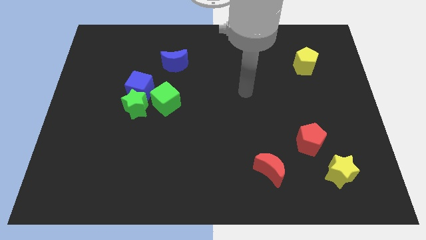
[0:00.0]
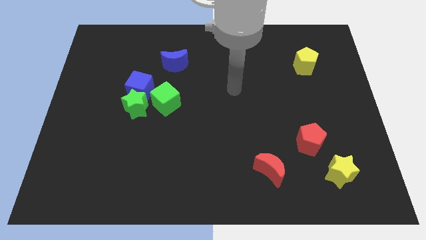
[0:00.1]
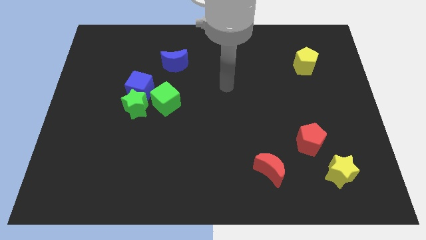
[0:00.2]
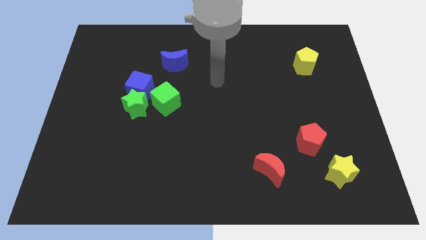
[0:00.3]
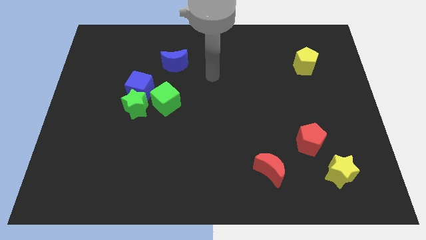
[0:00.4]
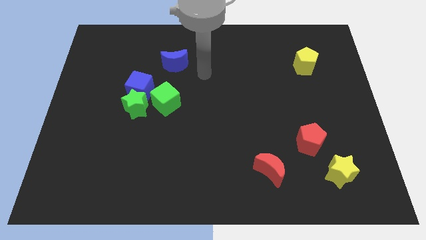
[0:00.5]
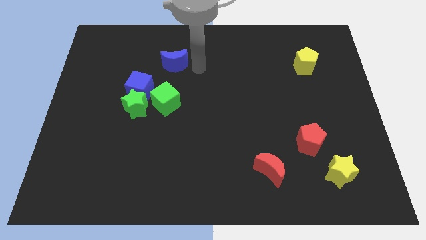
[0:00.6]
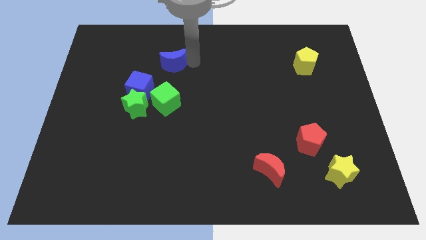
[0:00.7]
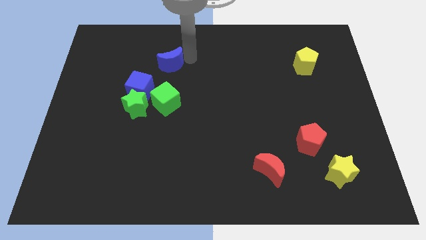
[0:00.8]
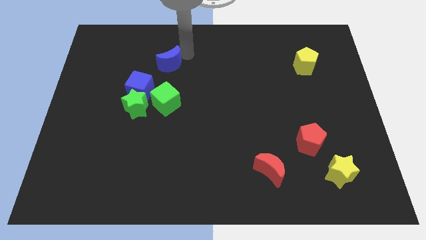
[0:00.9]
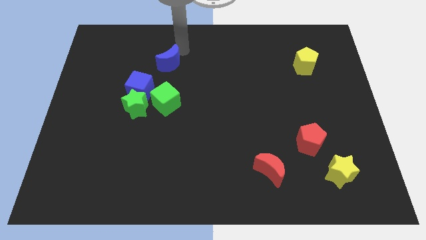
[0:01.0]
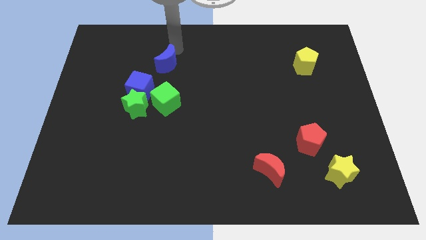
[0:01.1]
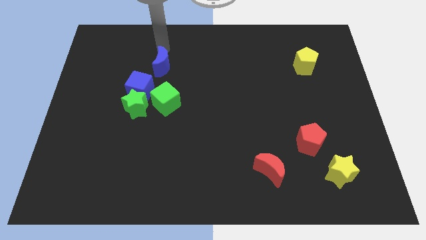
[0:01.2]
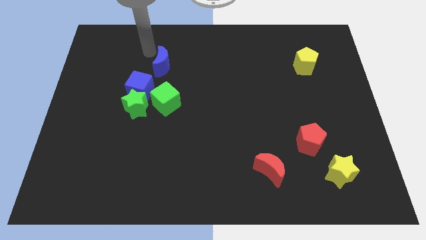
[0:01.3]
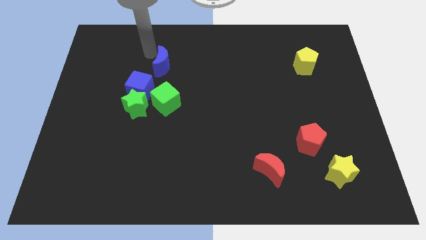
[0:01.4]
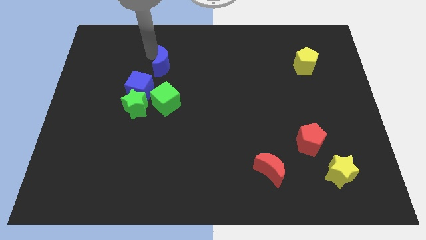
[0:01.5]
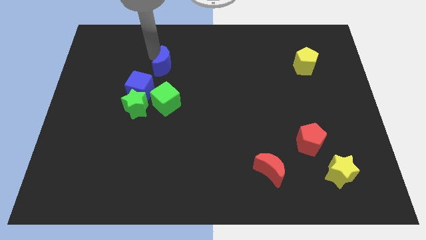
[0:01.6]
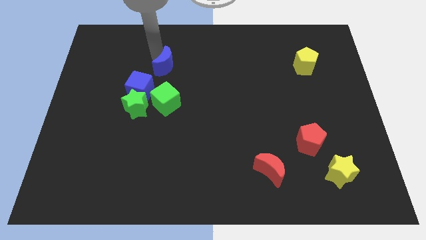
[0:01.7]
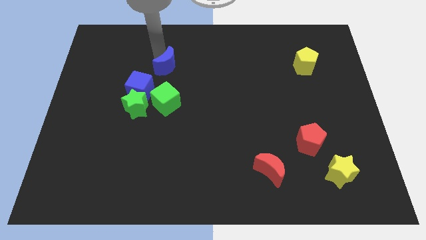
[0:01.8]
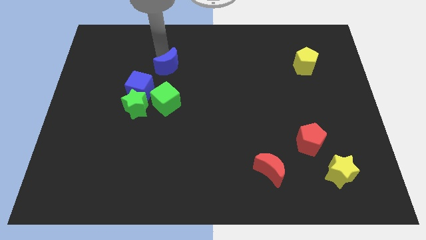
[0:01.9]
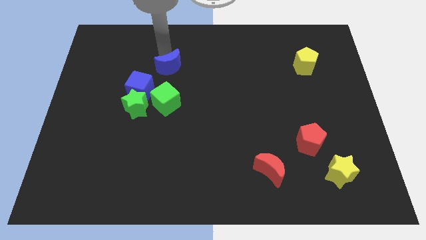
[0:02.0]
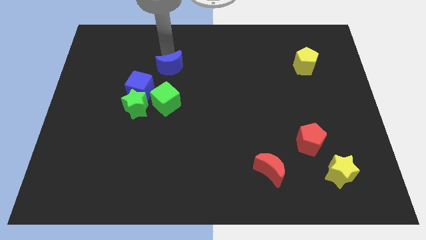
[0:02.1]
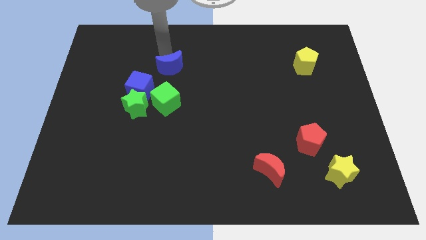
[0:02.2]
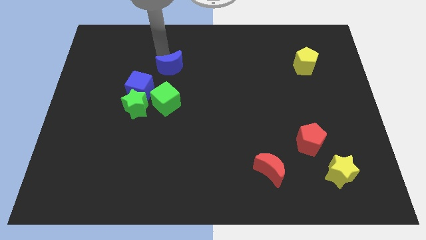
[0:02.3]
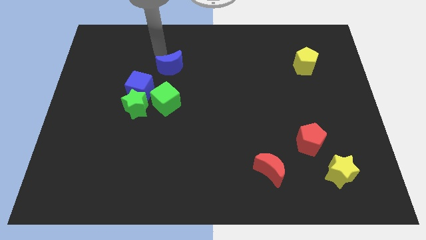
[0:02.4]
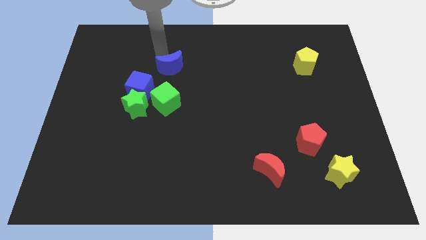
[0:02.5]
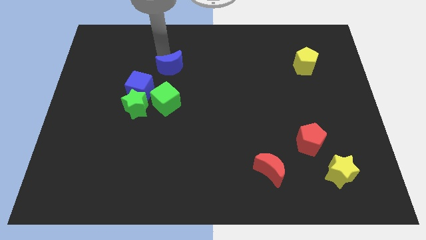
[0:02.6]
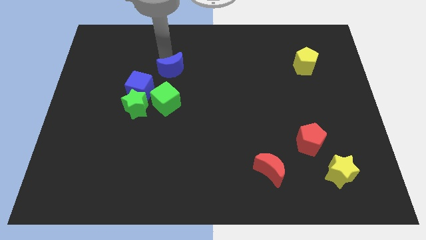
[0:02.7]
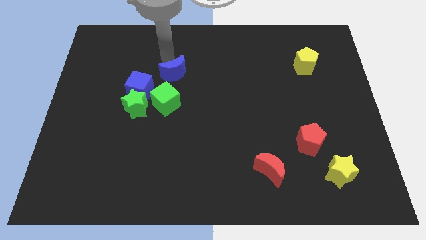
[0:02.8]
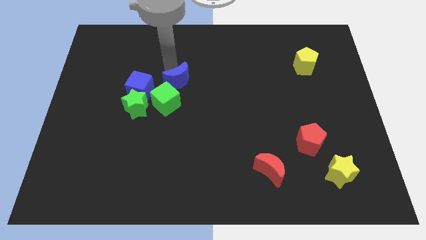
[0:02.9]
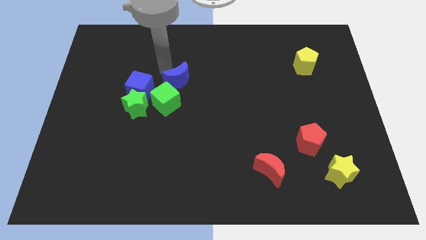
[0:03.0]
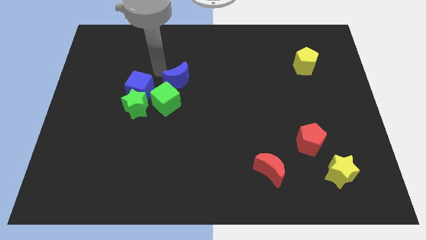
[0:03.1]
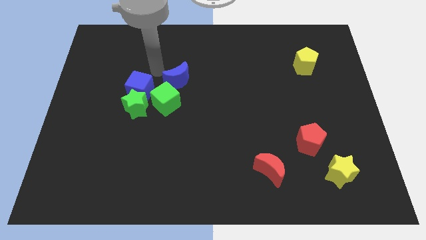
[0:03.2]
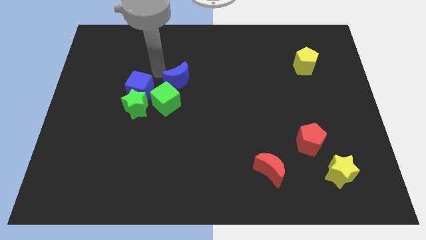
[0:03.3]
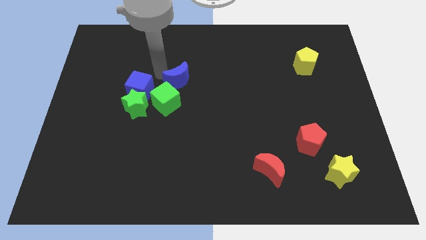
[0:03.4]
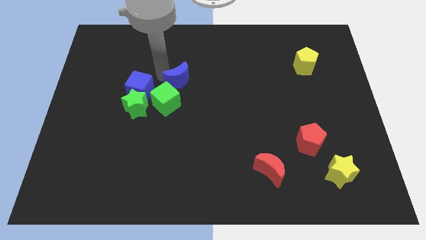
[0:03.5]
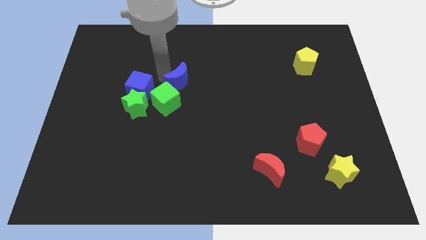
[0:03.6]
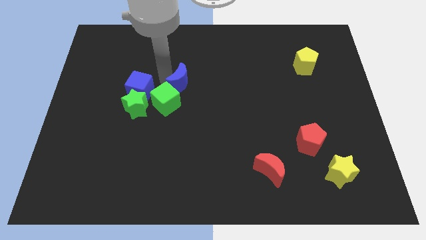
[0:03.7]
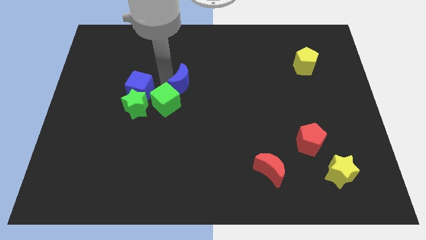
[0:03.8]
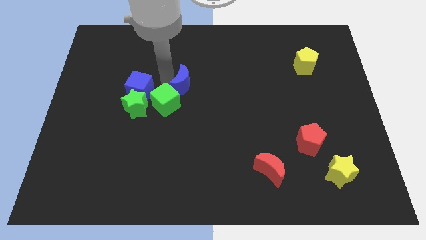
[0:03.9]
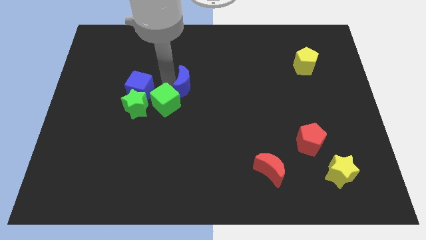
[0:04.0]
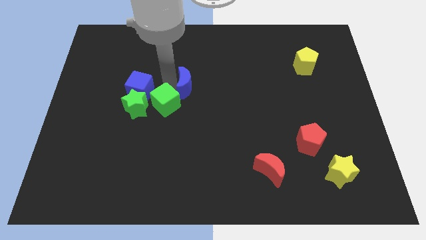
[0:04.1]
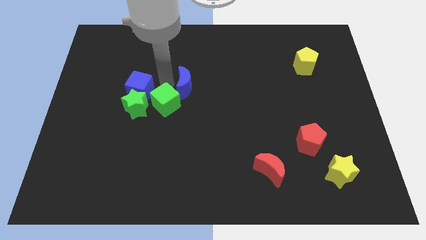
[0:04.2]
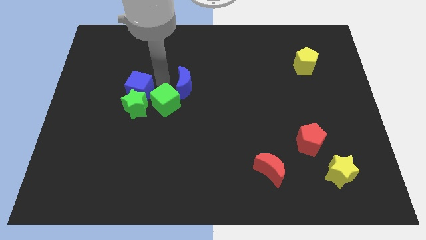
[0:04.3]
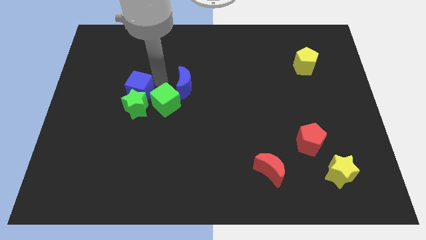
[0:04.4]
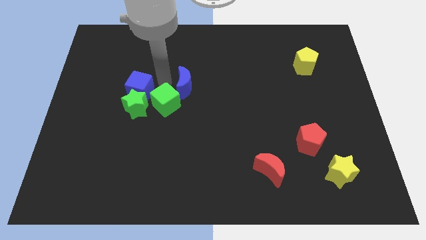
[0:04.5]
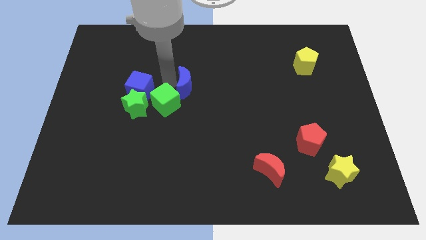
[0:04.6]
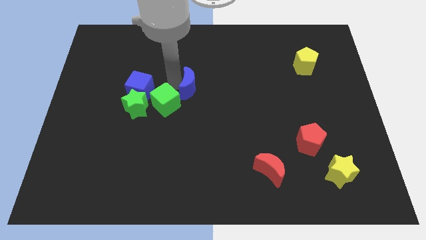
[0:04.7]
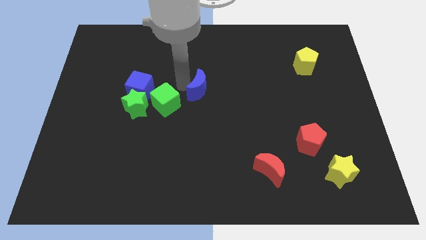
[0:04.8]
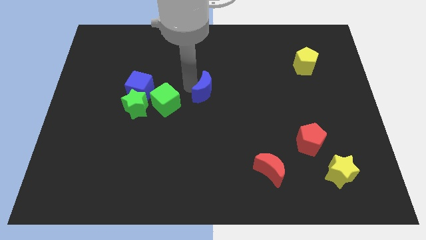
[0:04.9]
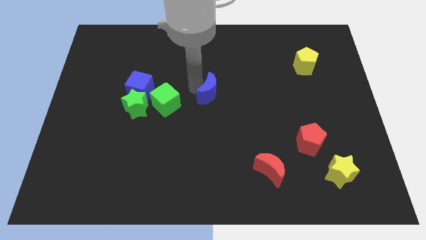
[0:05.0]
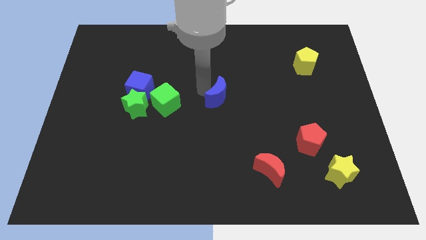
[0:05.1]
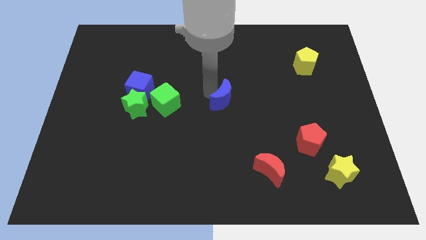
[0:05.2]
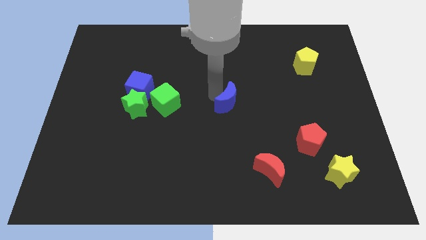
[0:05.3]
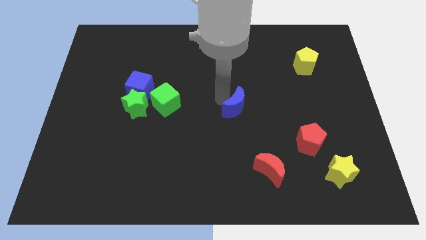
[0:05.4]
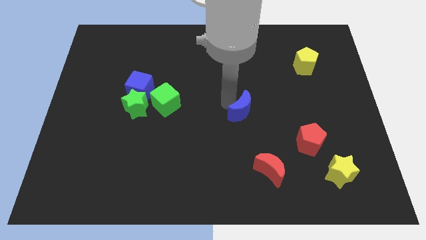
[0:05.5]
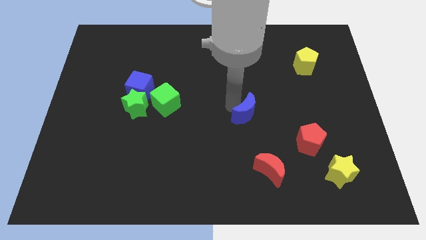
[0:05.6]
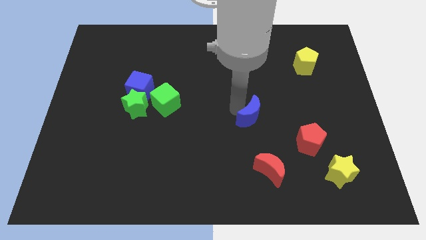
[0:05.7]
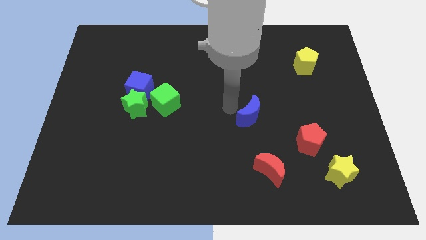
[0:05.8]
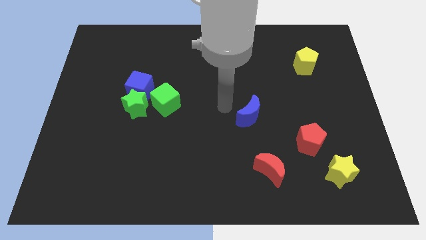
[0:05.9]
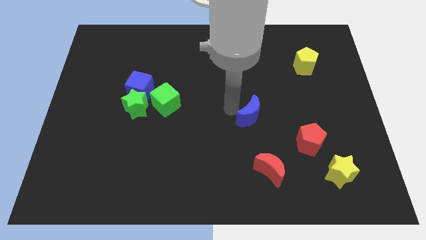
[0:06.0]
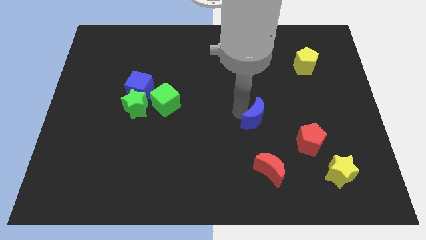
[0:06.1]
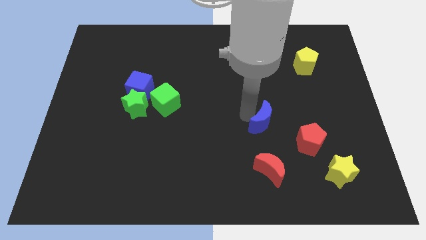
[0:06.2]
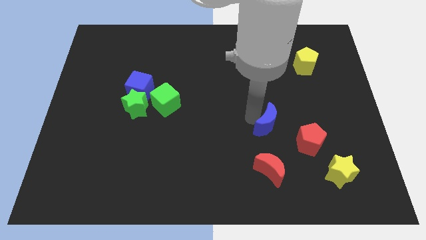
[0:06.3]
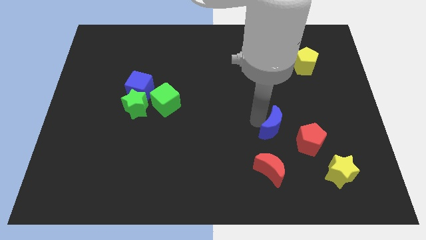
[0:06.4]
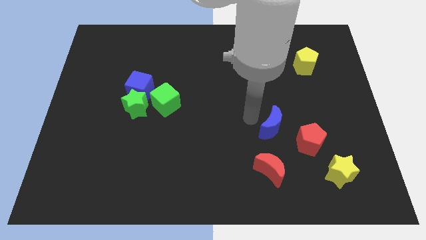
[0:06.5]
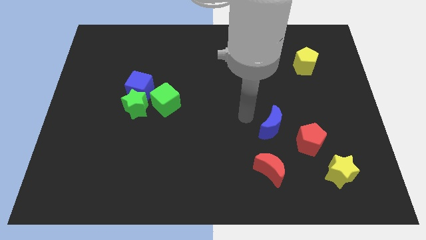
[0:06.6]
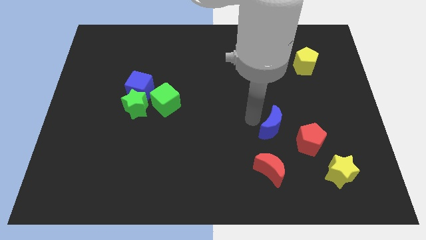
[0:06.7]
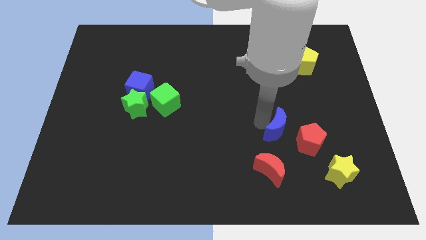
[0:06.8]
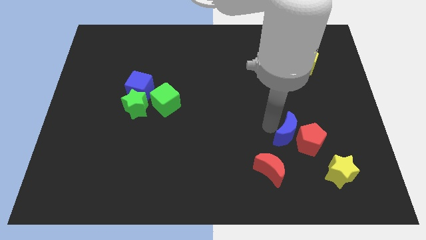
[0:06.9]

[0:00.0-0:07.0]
slide the blue moon to the red pentagon
